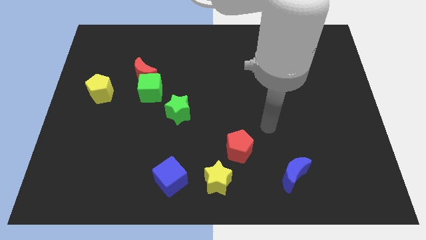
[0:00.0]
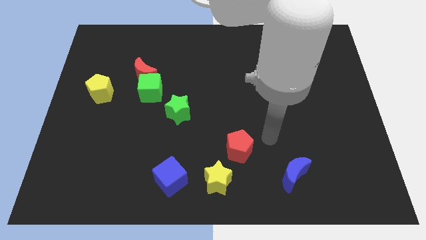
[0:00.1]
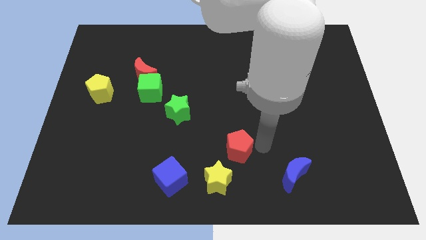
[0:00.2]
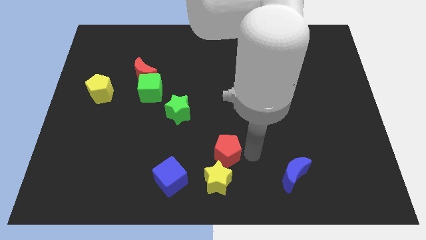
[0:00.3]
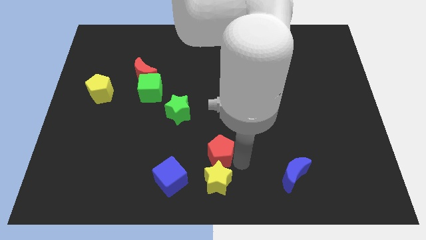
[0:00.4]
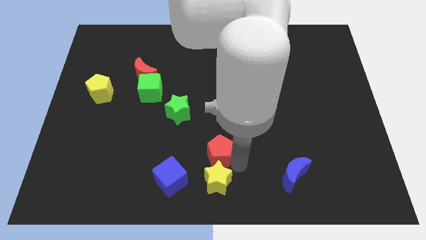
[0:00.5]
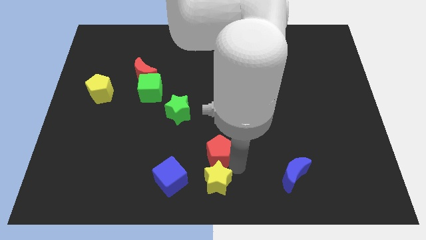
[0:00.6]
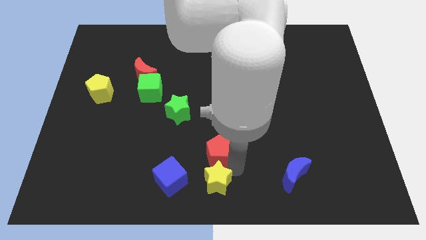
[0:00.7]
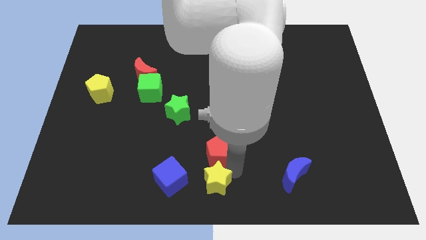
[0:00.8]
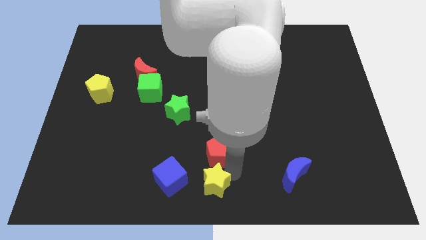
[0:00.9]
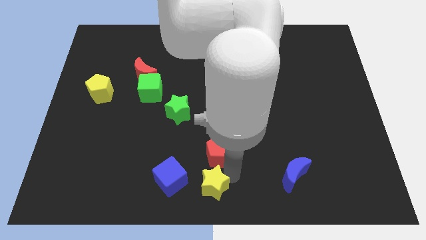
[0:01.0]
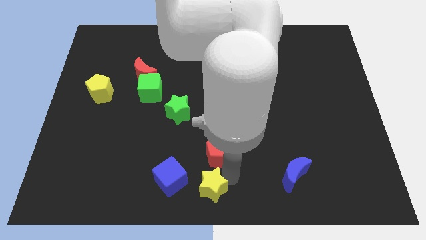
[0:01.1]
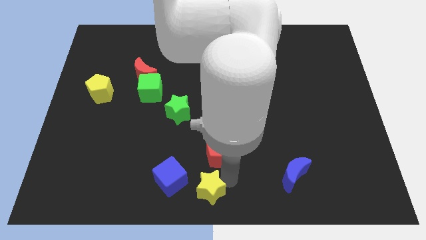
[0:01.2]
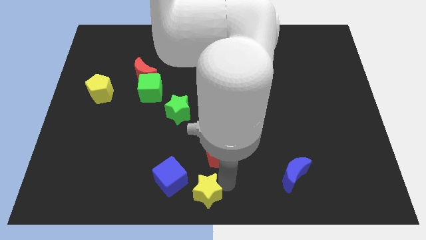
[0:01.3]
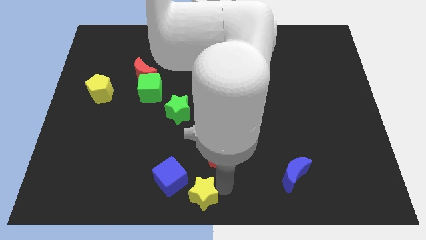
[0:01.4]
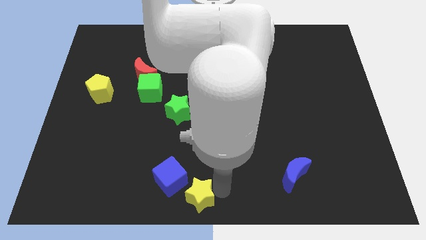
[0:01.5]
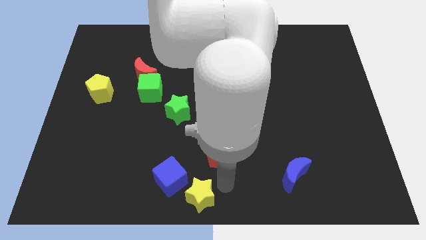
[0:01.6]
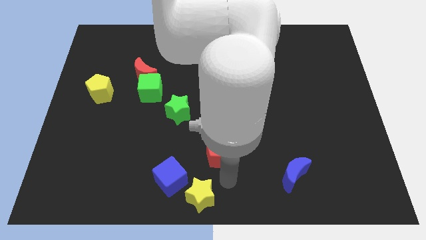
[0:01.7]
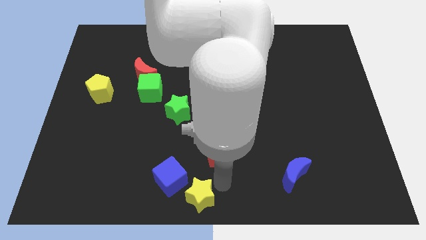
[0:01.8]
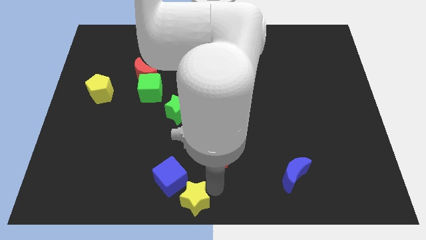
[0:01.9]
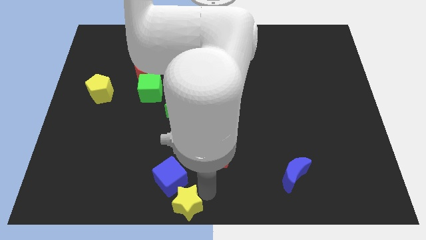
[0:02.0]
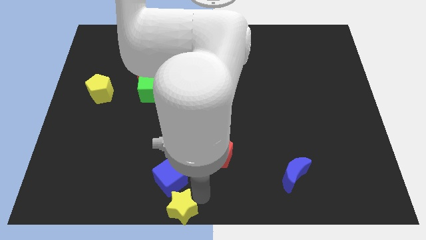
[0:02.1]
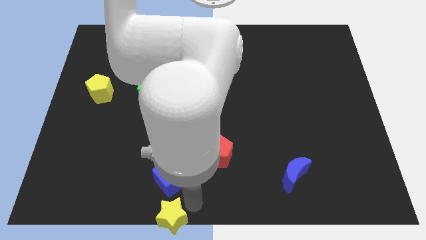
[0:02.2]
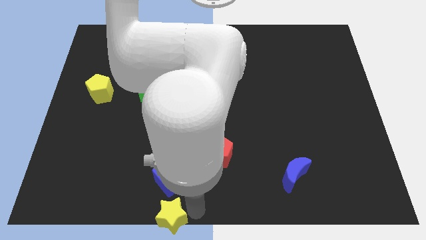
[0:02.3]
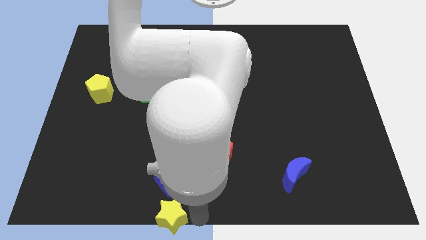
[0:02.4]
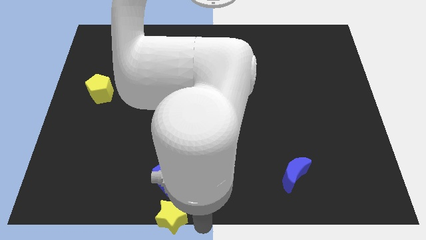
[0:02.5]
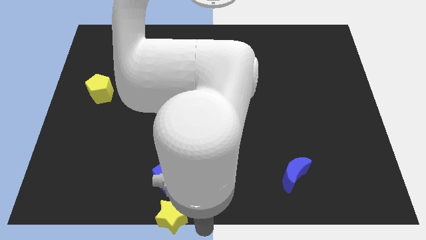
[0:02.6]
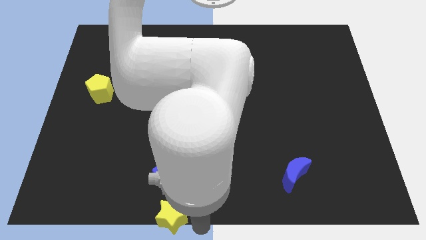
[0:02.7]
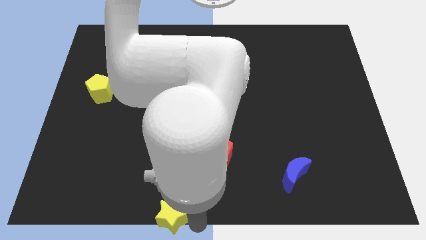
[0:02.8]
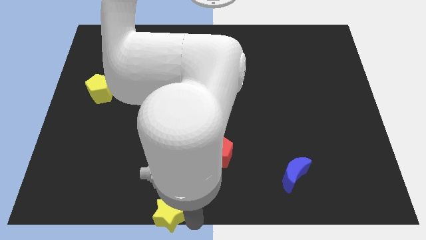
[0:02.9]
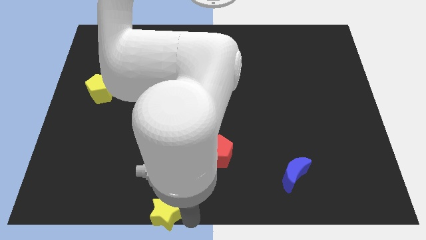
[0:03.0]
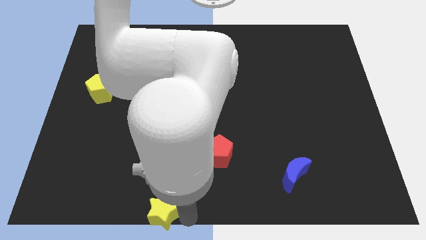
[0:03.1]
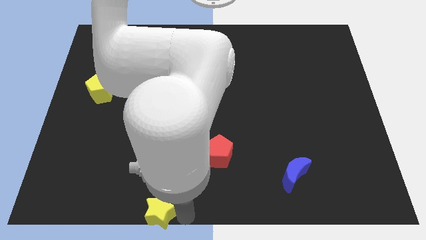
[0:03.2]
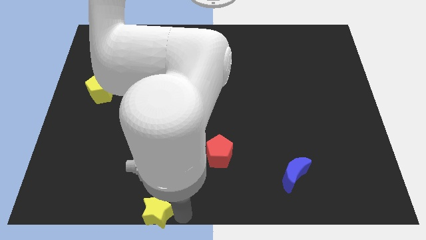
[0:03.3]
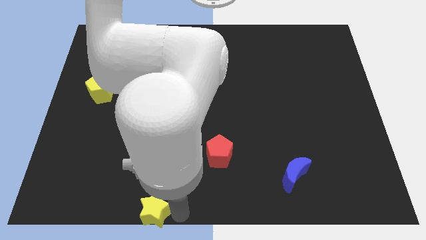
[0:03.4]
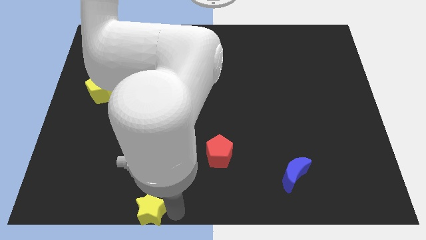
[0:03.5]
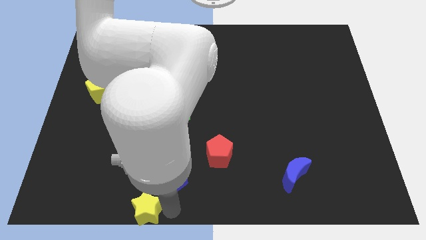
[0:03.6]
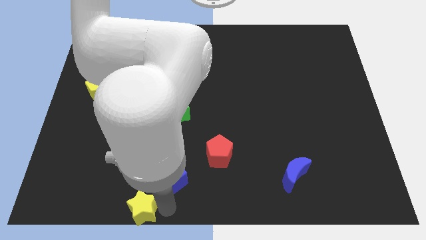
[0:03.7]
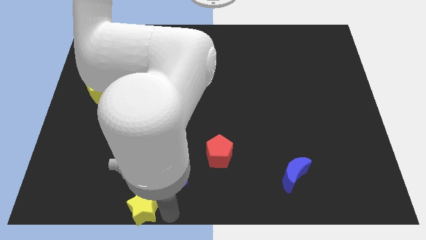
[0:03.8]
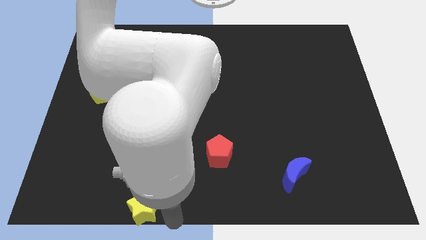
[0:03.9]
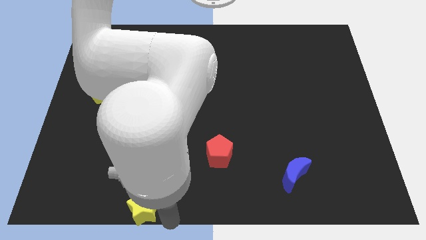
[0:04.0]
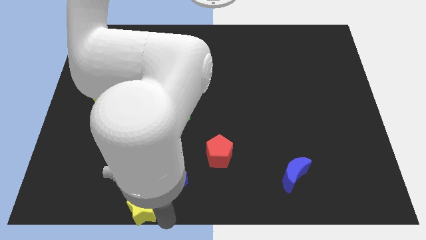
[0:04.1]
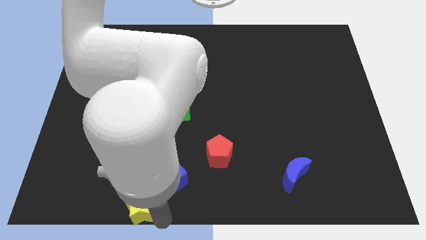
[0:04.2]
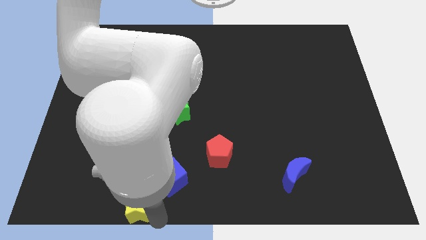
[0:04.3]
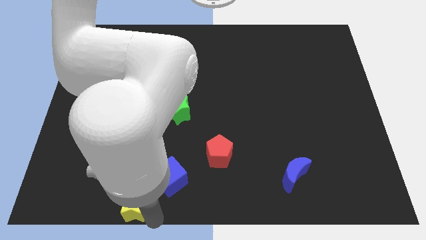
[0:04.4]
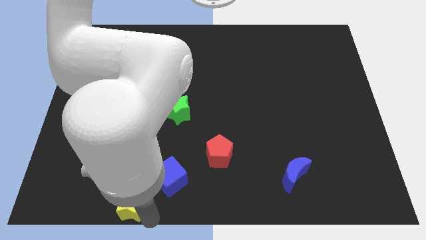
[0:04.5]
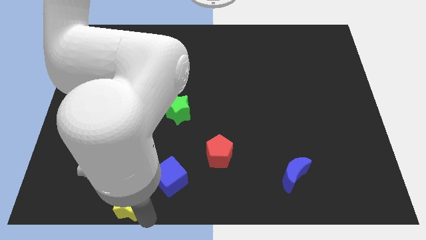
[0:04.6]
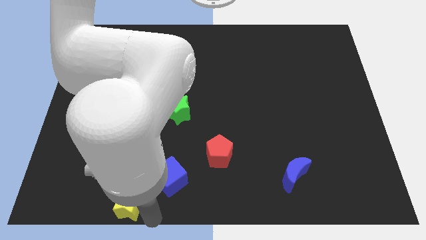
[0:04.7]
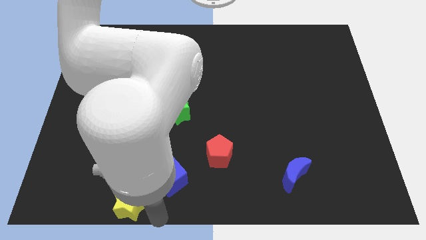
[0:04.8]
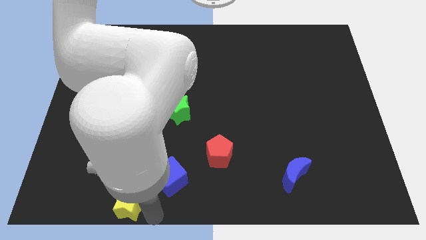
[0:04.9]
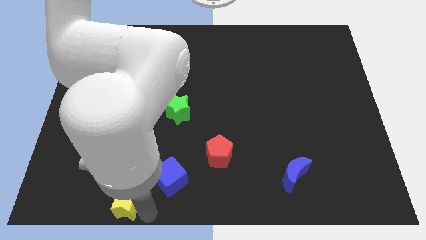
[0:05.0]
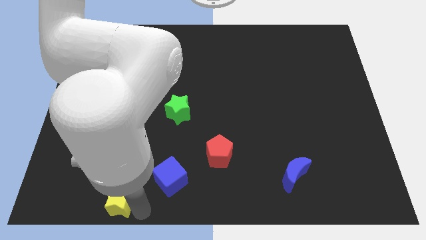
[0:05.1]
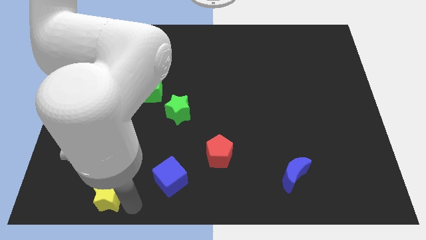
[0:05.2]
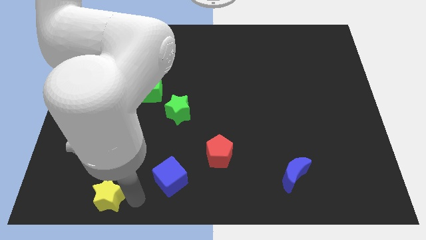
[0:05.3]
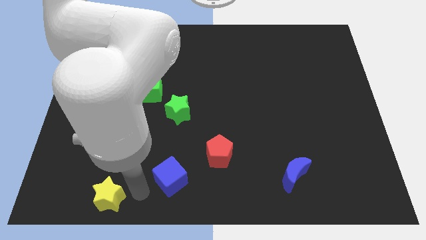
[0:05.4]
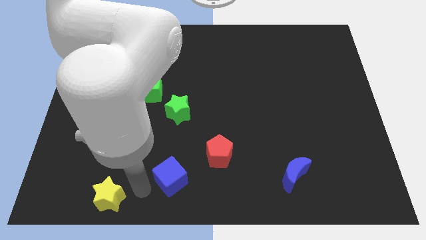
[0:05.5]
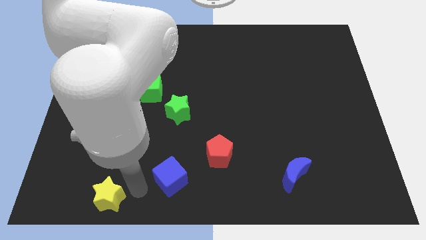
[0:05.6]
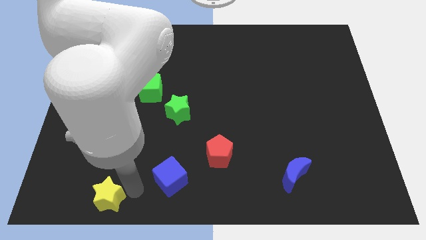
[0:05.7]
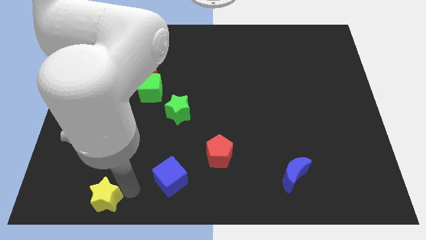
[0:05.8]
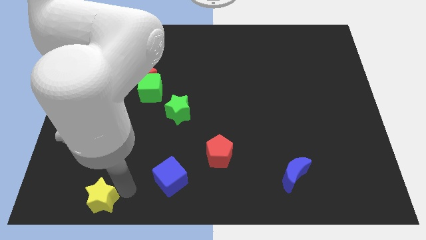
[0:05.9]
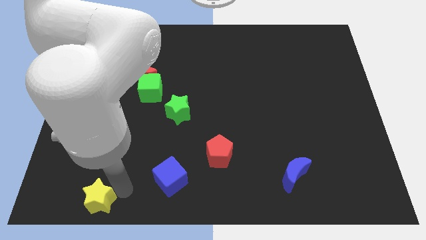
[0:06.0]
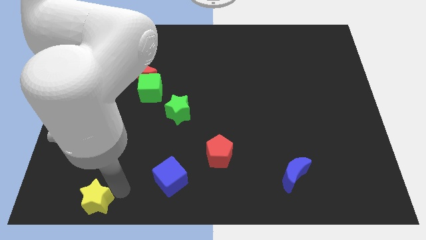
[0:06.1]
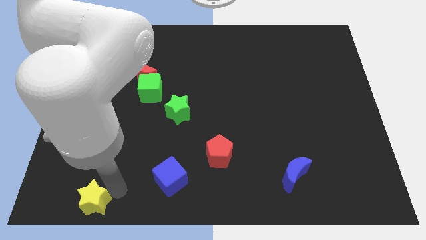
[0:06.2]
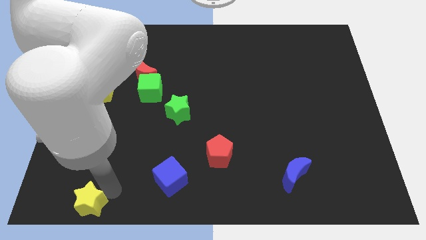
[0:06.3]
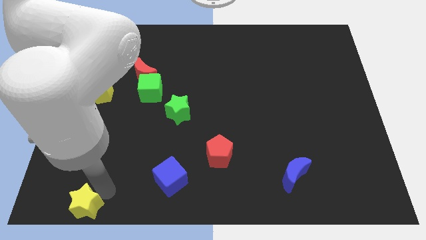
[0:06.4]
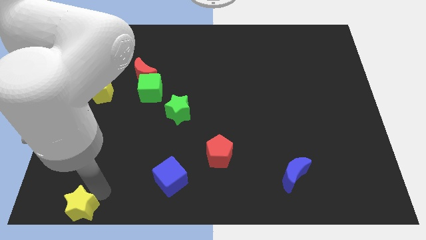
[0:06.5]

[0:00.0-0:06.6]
put the yellow star to the bottom left
